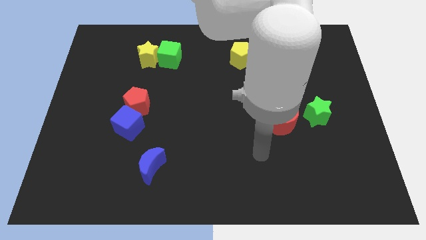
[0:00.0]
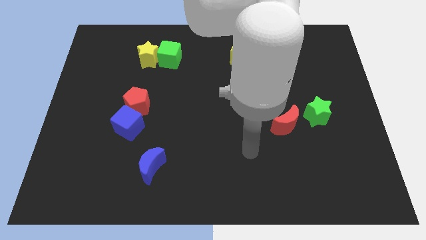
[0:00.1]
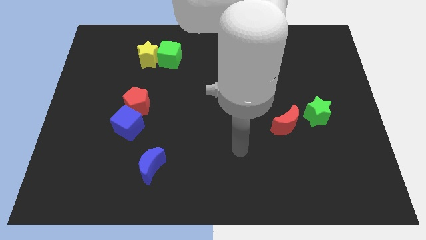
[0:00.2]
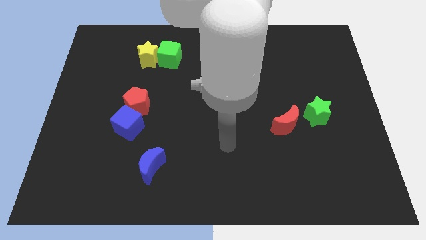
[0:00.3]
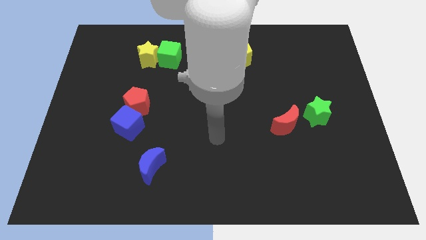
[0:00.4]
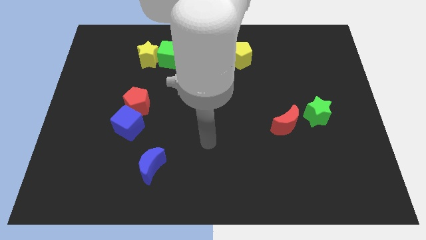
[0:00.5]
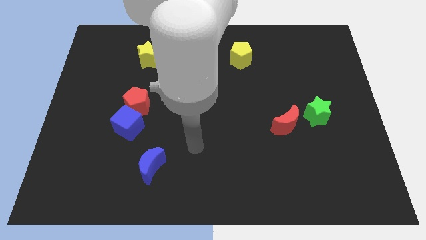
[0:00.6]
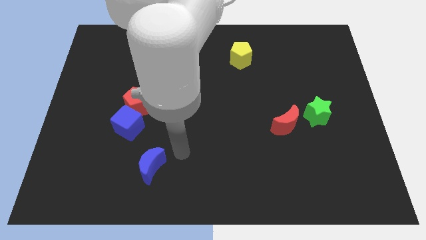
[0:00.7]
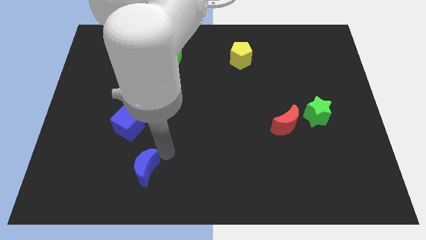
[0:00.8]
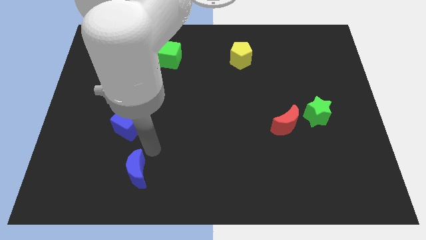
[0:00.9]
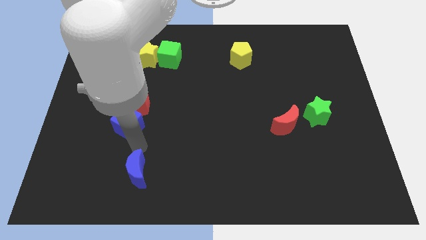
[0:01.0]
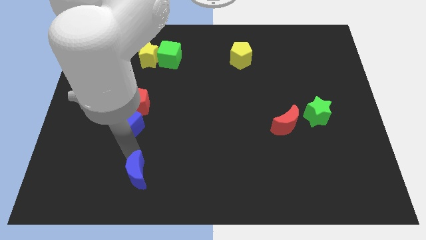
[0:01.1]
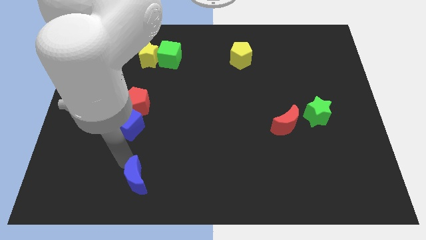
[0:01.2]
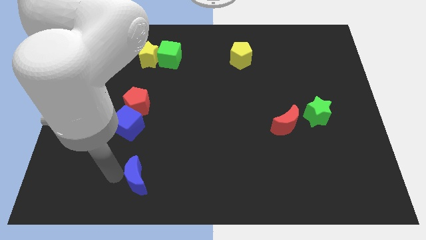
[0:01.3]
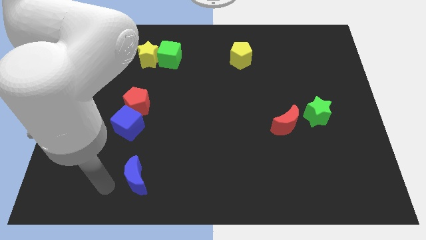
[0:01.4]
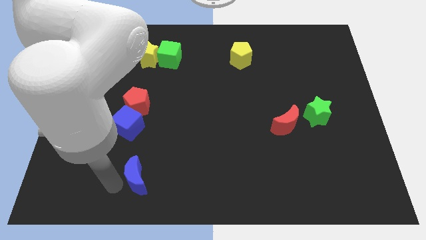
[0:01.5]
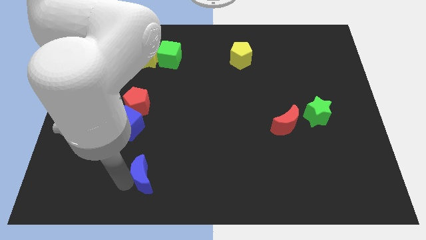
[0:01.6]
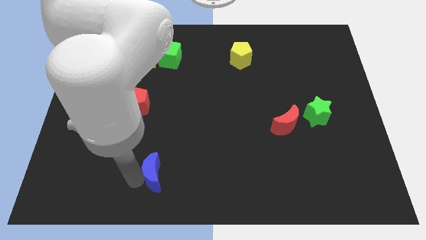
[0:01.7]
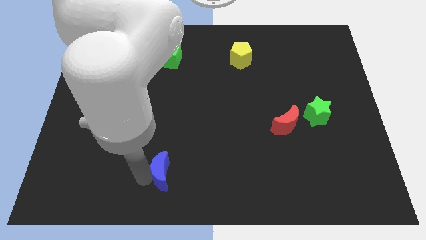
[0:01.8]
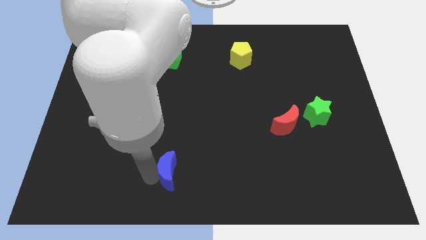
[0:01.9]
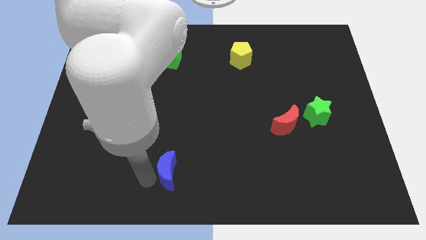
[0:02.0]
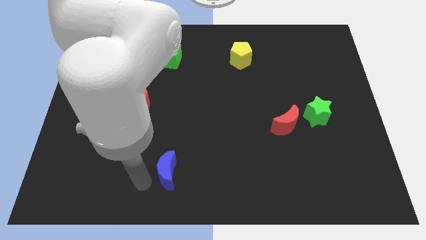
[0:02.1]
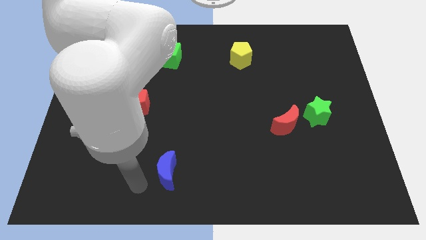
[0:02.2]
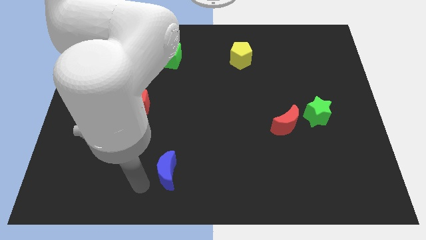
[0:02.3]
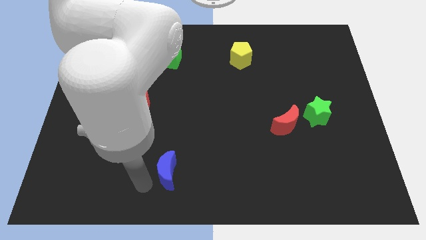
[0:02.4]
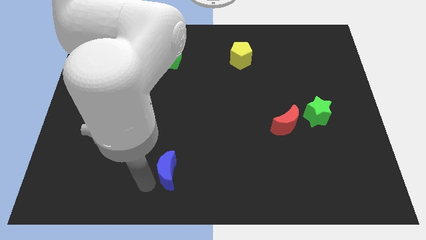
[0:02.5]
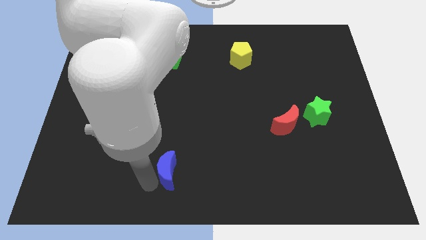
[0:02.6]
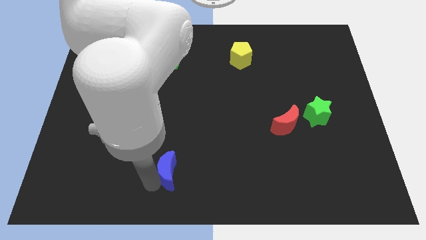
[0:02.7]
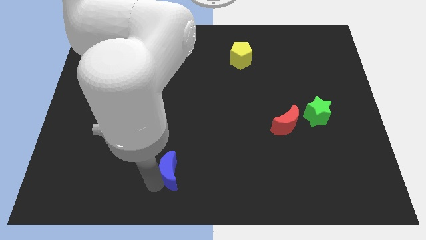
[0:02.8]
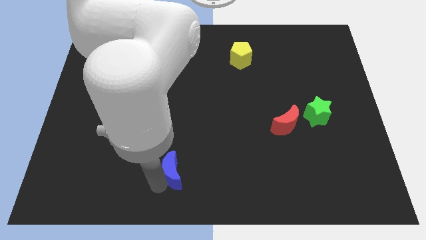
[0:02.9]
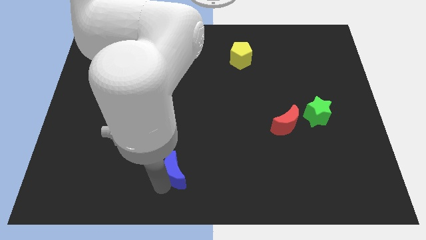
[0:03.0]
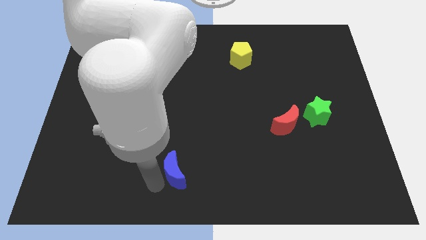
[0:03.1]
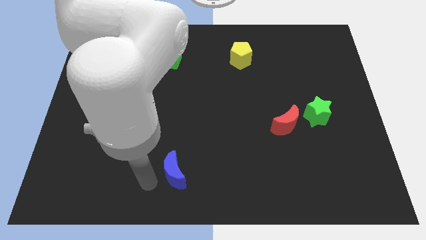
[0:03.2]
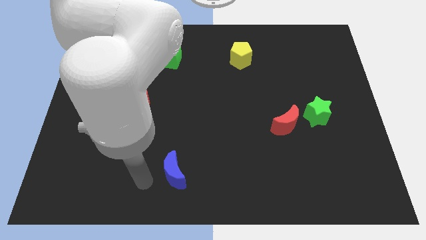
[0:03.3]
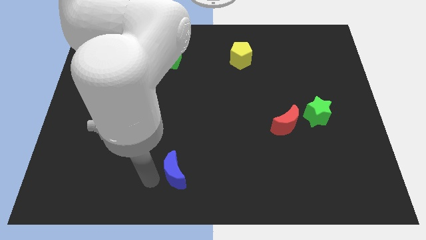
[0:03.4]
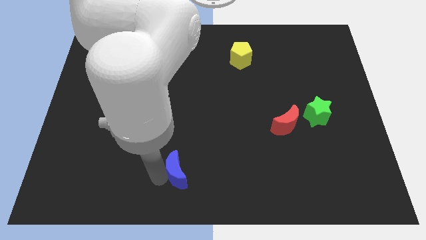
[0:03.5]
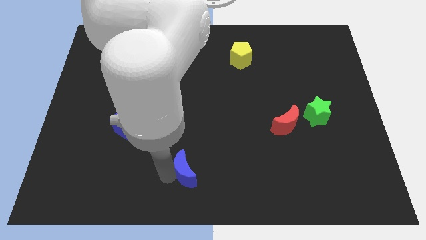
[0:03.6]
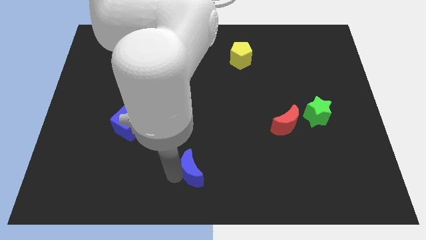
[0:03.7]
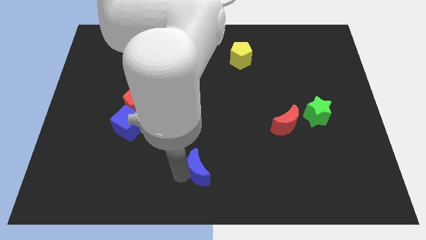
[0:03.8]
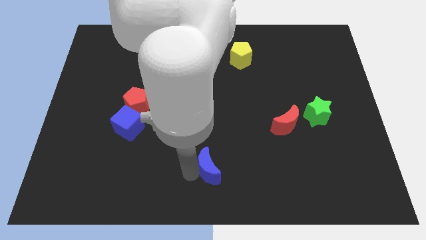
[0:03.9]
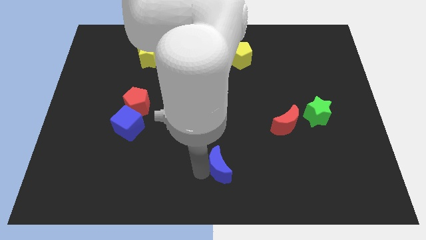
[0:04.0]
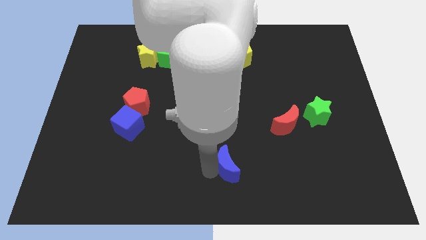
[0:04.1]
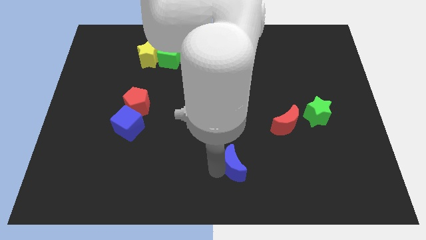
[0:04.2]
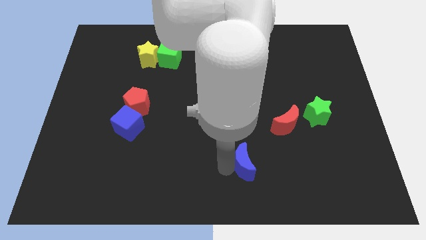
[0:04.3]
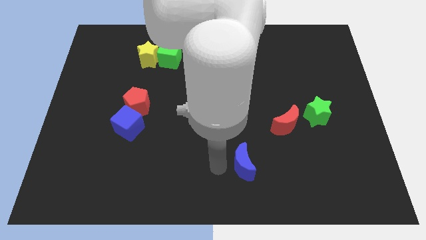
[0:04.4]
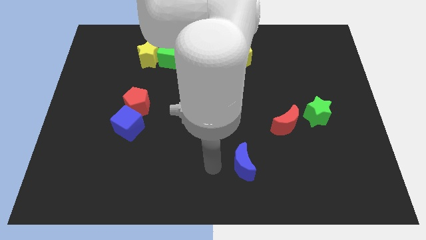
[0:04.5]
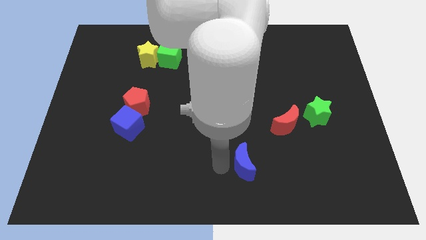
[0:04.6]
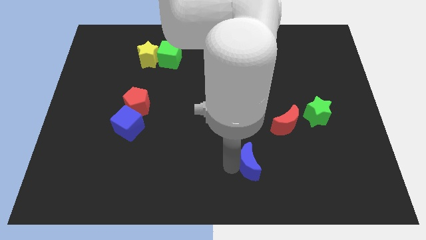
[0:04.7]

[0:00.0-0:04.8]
move the blue moon right

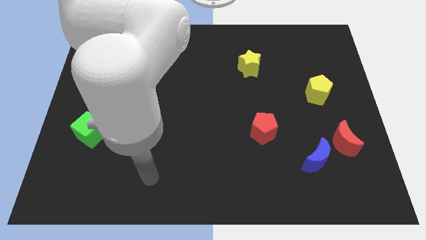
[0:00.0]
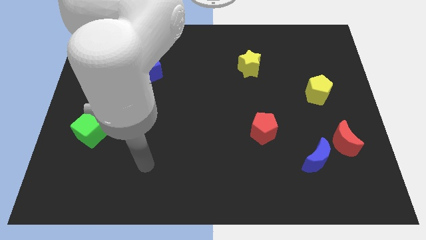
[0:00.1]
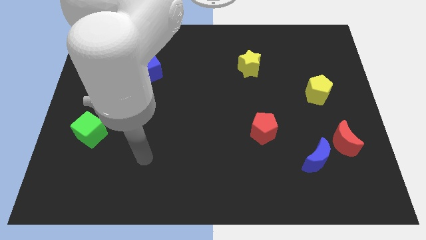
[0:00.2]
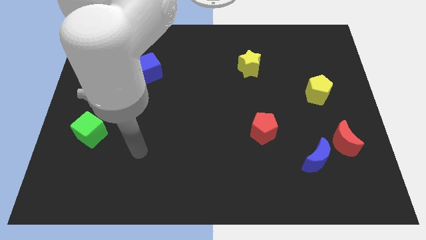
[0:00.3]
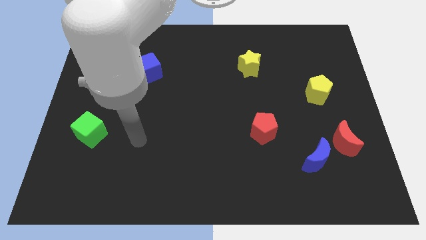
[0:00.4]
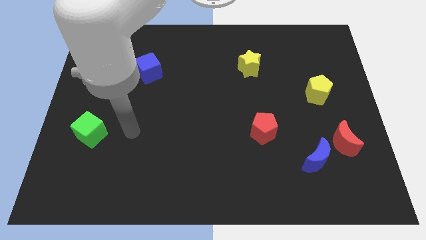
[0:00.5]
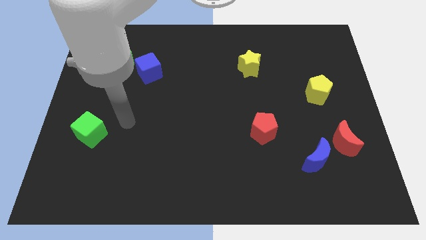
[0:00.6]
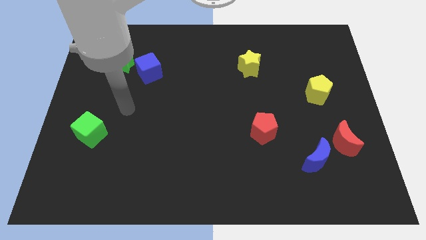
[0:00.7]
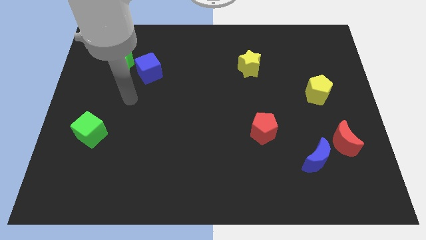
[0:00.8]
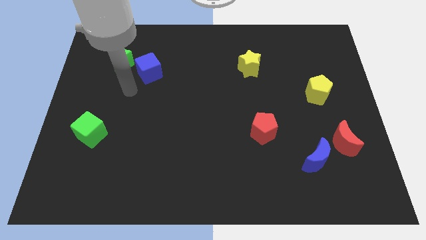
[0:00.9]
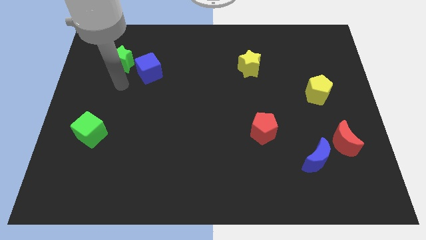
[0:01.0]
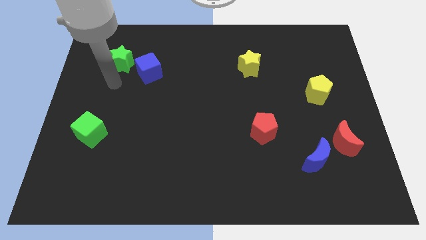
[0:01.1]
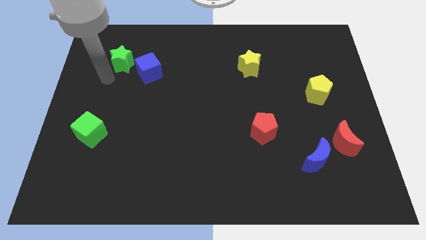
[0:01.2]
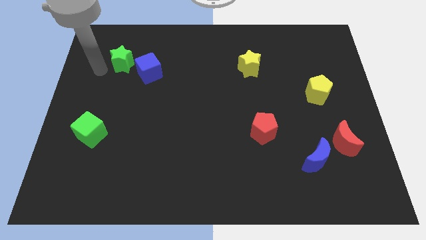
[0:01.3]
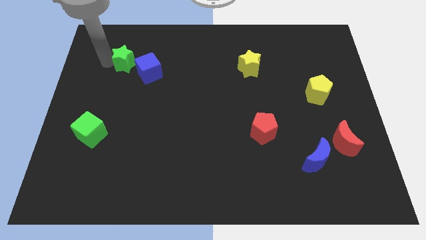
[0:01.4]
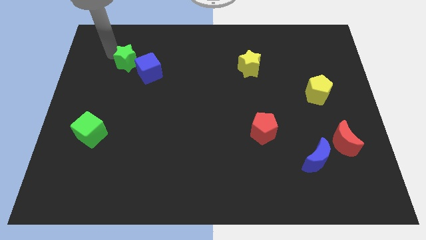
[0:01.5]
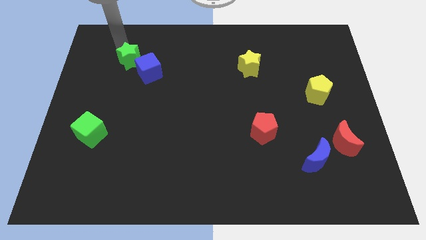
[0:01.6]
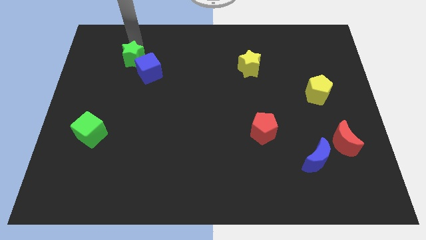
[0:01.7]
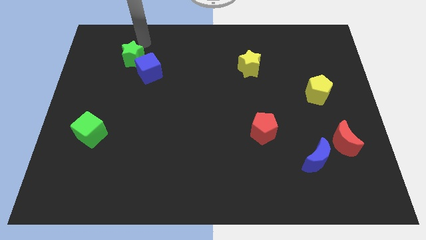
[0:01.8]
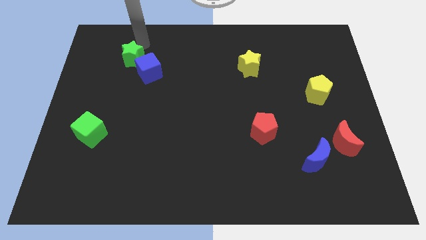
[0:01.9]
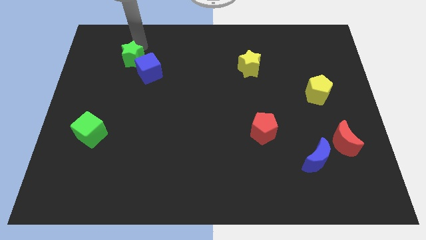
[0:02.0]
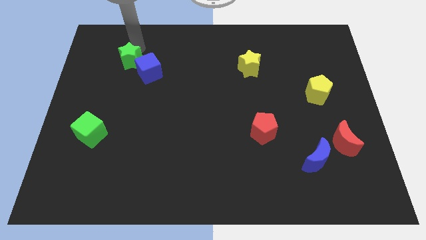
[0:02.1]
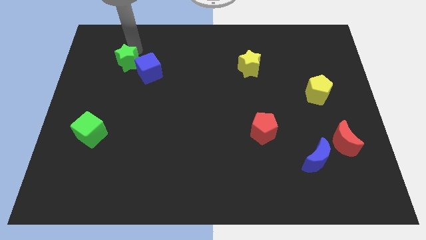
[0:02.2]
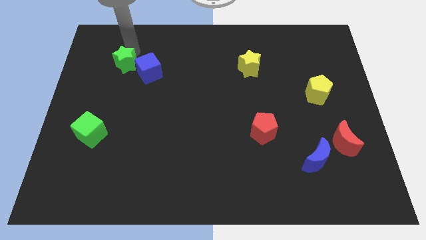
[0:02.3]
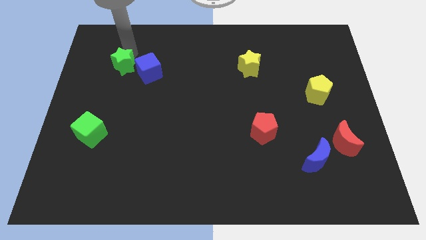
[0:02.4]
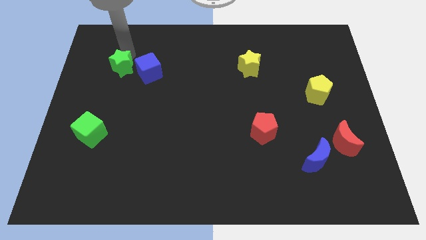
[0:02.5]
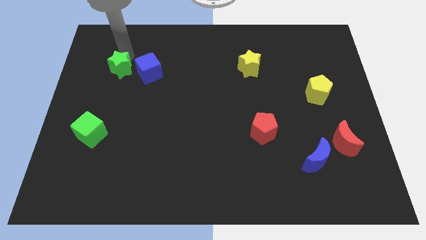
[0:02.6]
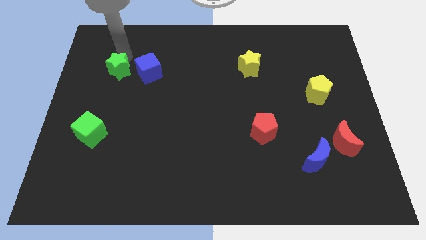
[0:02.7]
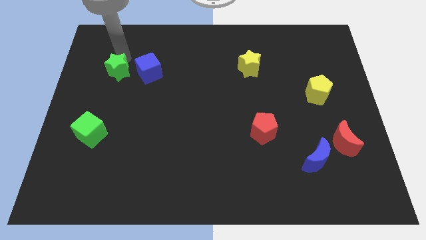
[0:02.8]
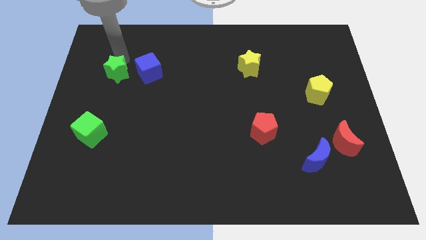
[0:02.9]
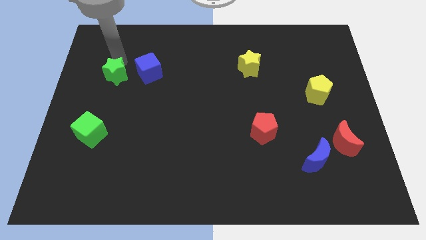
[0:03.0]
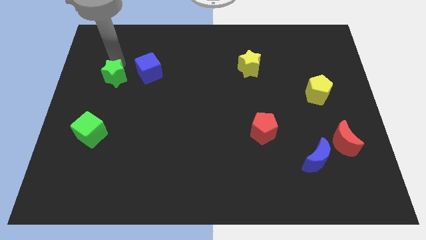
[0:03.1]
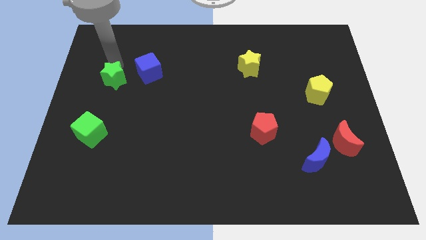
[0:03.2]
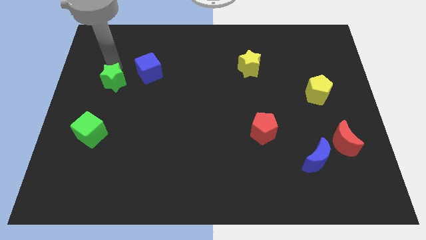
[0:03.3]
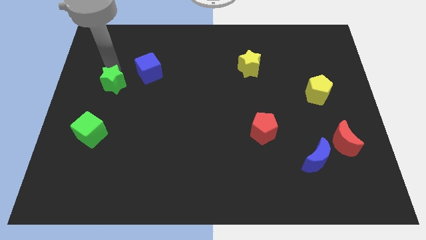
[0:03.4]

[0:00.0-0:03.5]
slightly push the green star down
